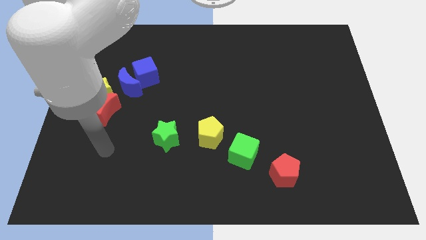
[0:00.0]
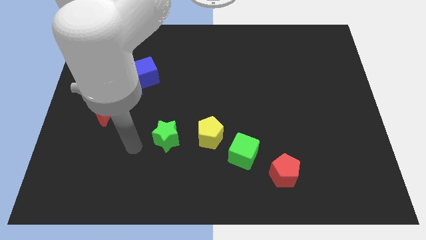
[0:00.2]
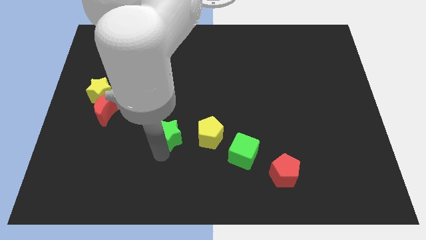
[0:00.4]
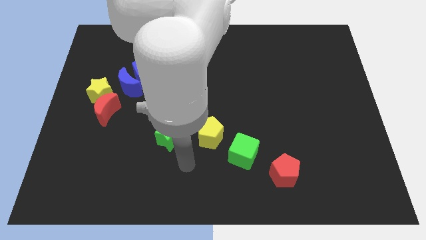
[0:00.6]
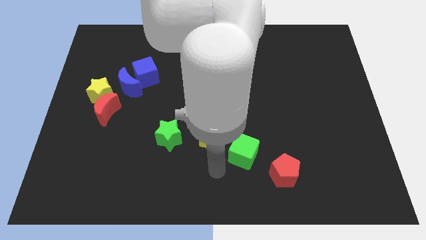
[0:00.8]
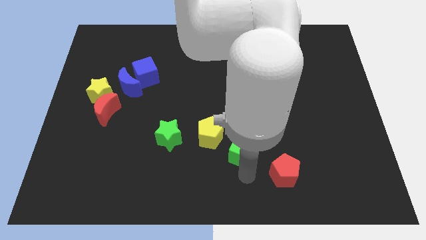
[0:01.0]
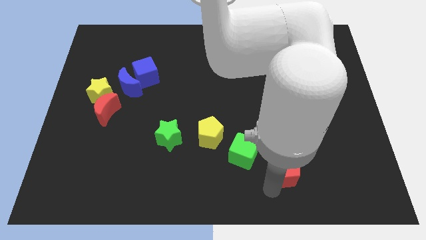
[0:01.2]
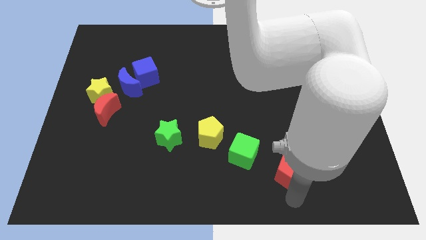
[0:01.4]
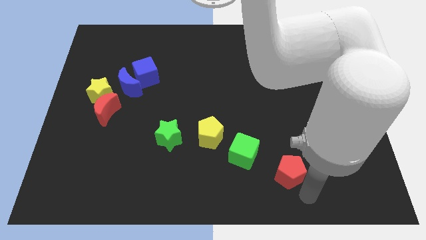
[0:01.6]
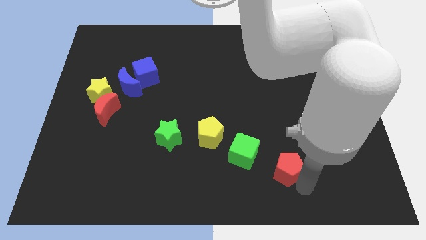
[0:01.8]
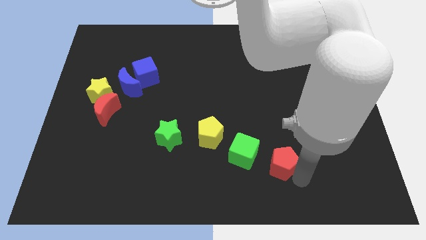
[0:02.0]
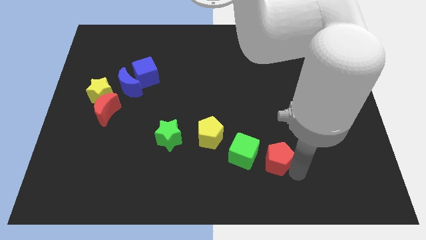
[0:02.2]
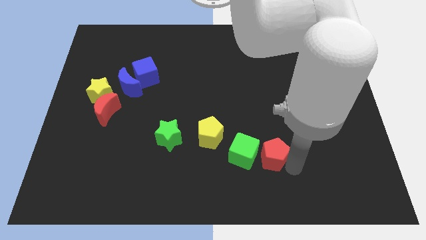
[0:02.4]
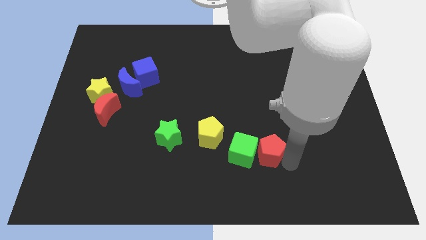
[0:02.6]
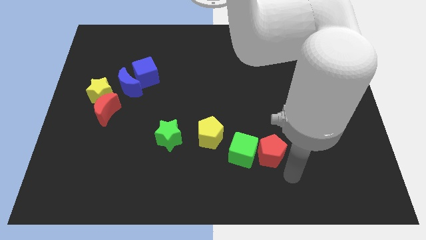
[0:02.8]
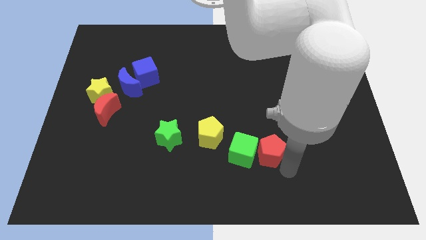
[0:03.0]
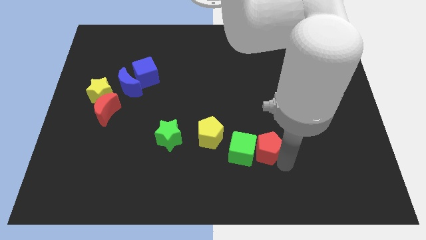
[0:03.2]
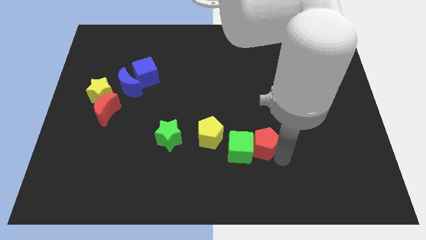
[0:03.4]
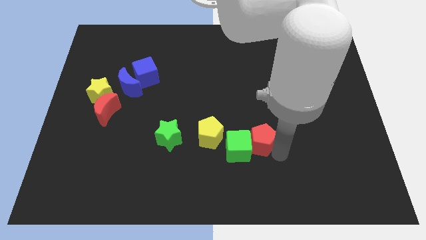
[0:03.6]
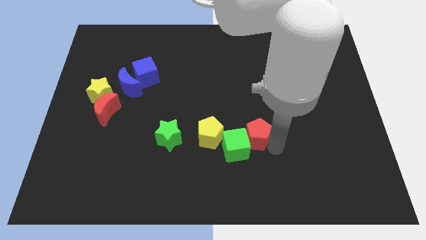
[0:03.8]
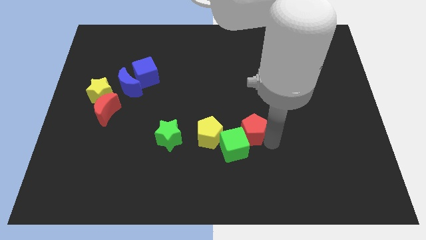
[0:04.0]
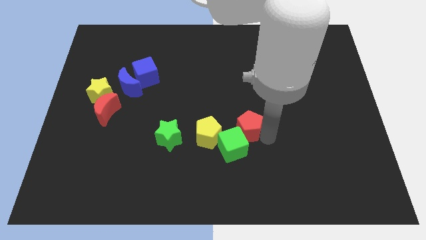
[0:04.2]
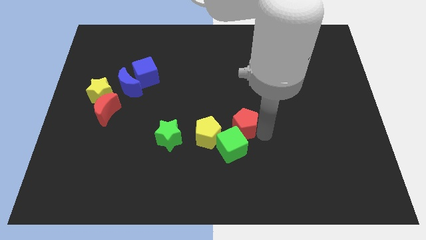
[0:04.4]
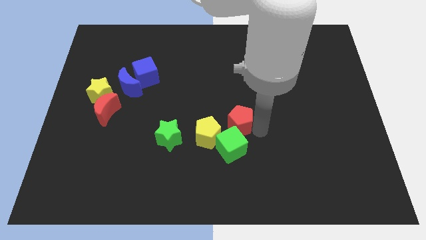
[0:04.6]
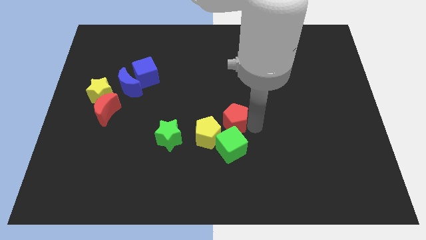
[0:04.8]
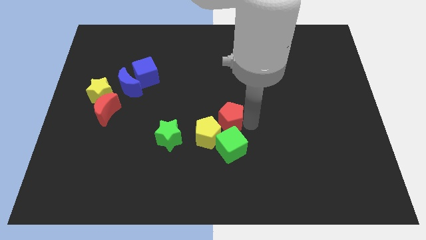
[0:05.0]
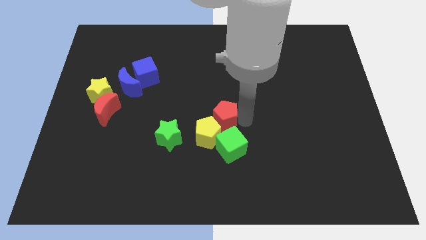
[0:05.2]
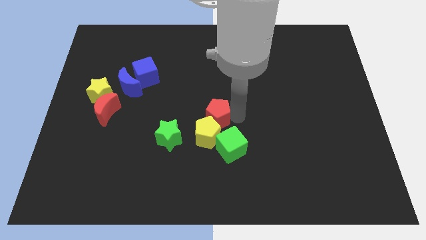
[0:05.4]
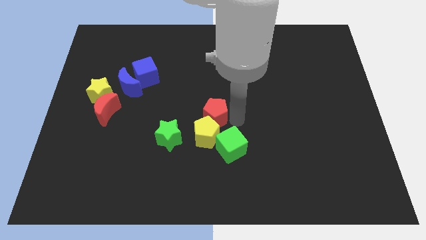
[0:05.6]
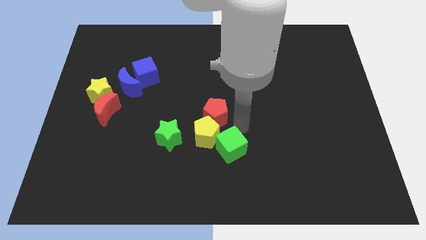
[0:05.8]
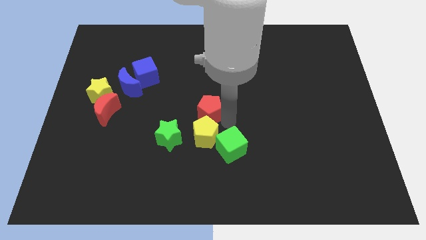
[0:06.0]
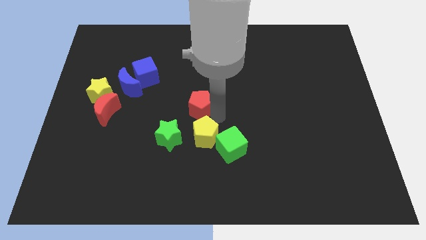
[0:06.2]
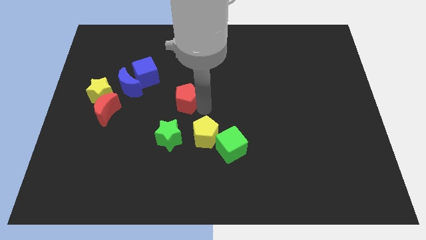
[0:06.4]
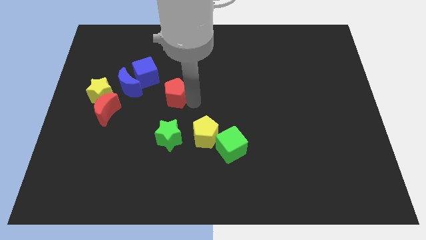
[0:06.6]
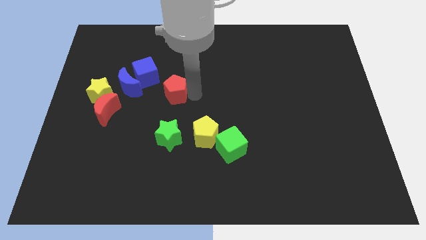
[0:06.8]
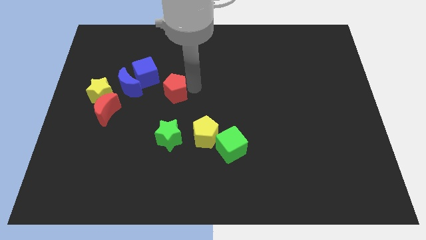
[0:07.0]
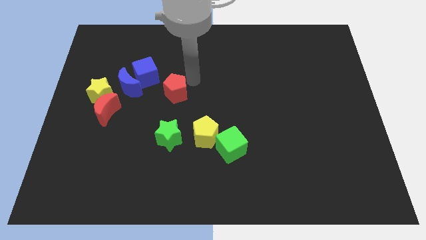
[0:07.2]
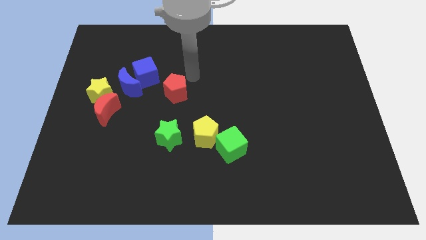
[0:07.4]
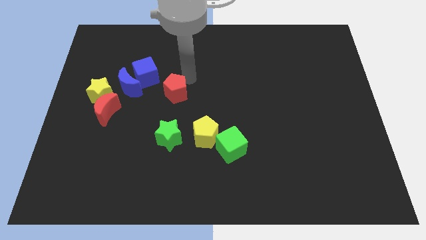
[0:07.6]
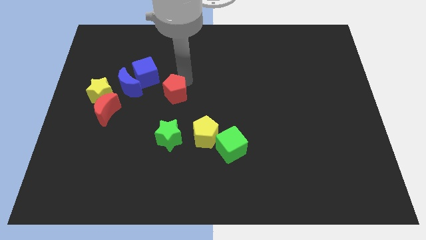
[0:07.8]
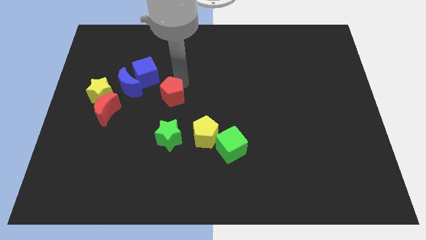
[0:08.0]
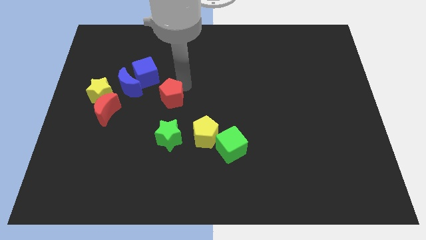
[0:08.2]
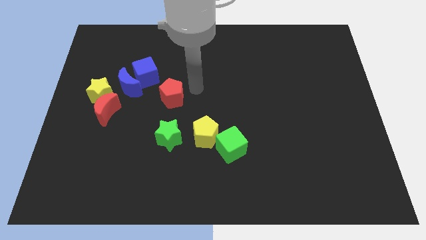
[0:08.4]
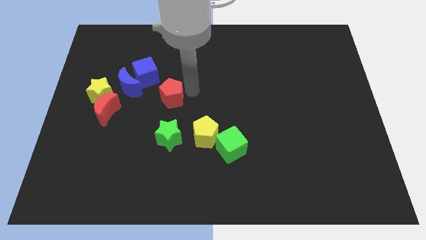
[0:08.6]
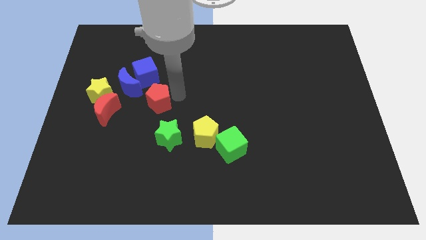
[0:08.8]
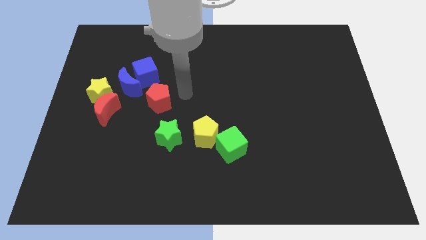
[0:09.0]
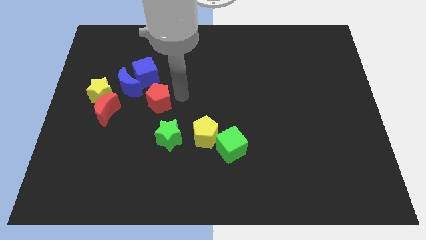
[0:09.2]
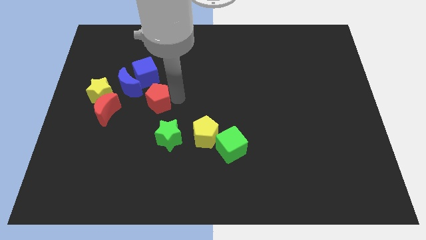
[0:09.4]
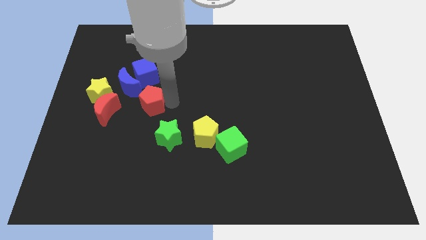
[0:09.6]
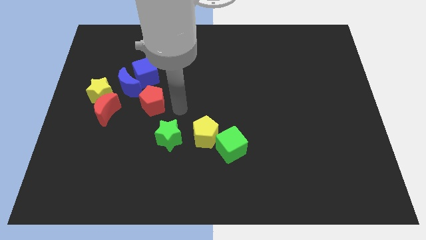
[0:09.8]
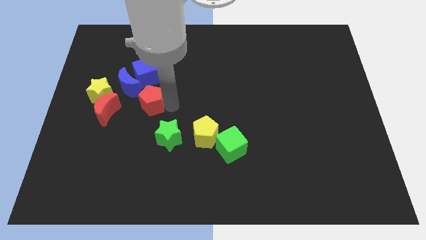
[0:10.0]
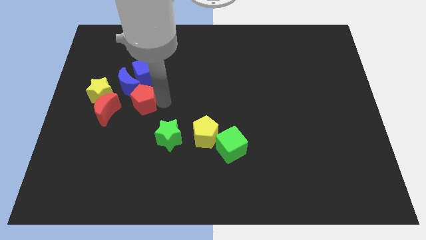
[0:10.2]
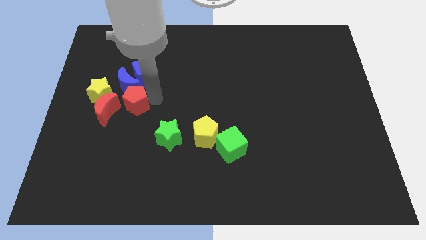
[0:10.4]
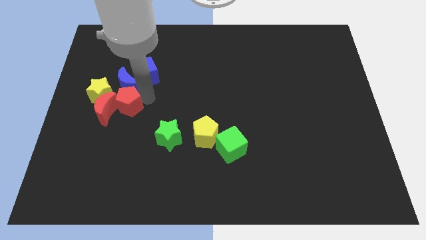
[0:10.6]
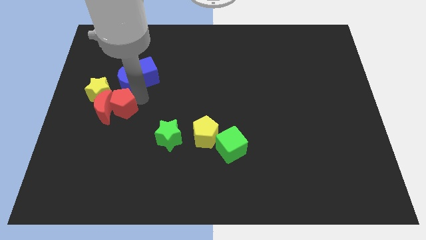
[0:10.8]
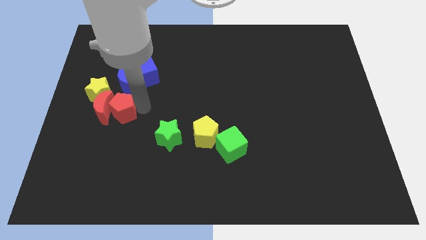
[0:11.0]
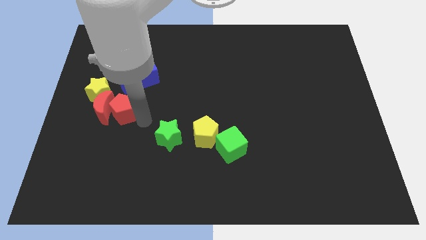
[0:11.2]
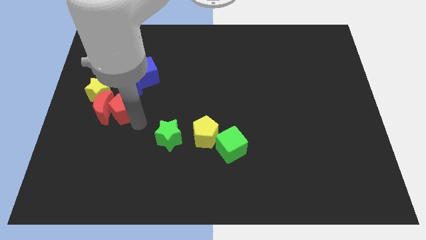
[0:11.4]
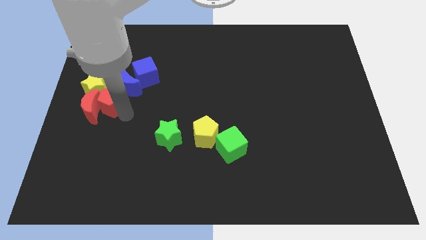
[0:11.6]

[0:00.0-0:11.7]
put the red pentagon to the yellow star

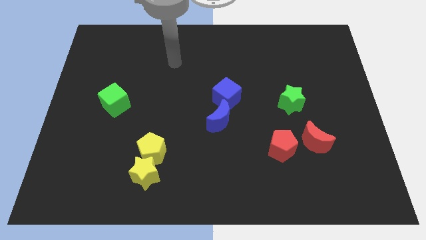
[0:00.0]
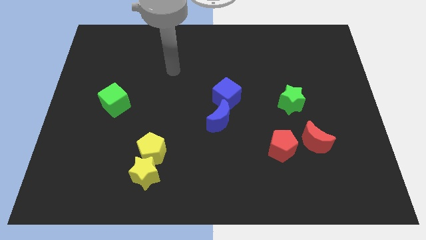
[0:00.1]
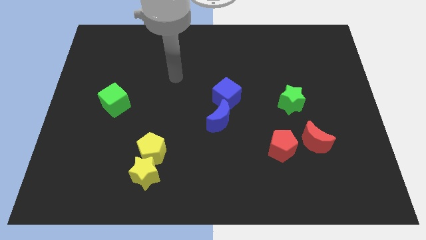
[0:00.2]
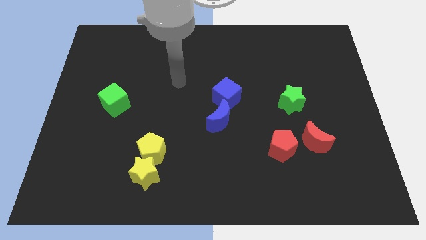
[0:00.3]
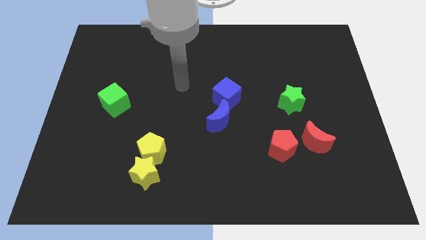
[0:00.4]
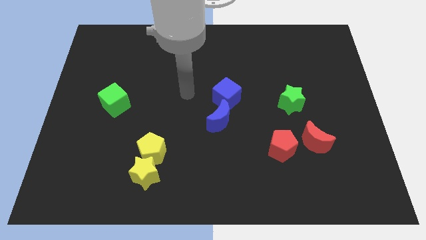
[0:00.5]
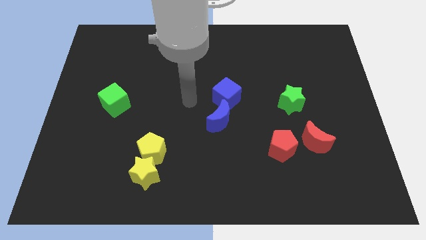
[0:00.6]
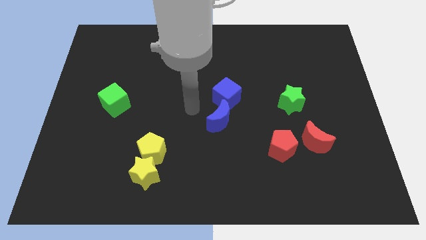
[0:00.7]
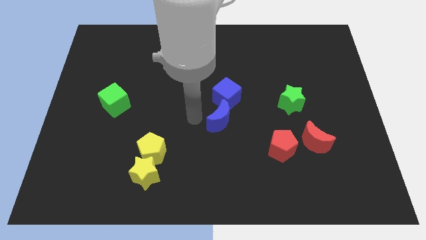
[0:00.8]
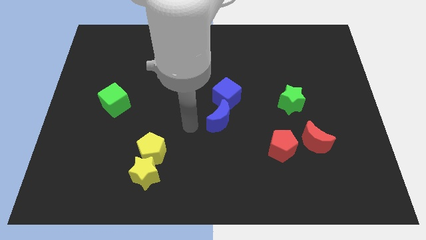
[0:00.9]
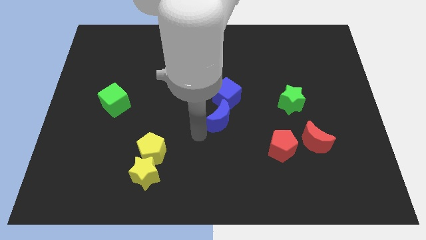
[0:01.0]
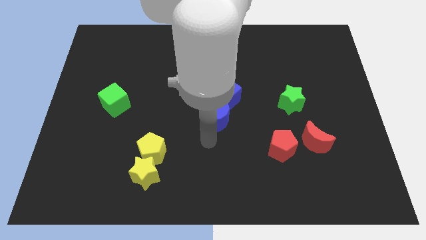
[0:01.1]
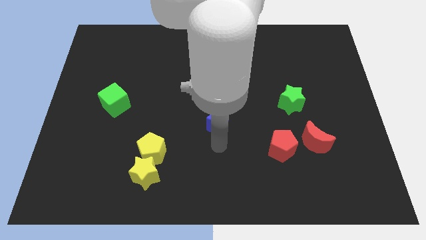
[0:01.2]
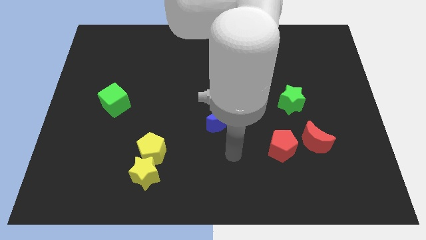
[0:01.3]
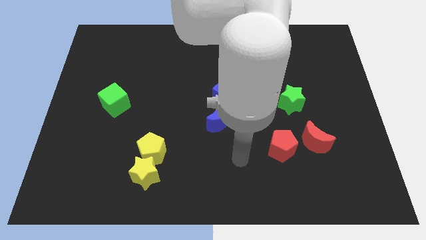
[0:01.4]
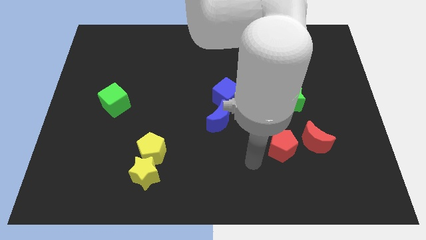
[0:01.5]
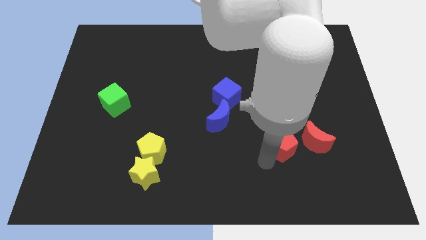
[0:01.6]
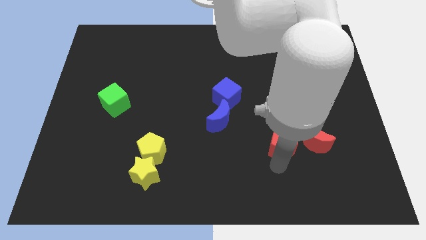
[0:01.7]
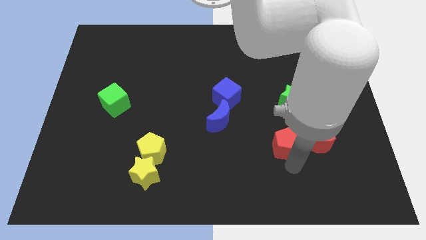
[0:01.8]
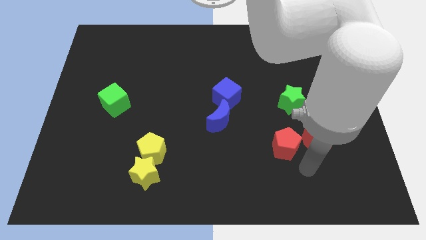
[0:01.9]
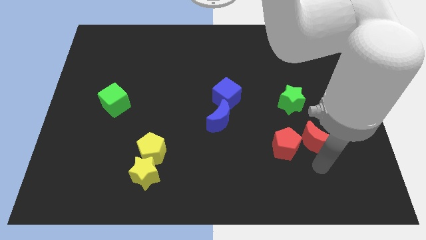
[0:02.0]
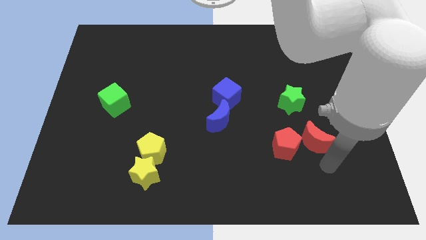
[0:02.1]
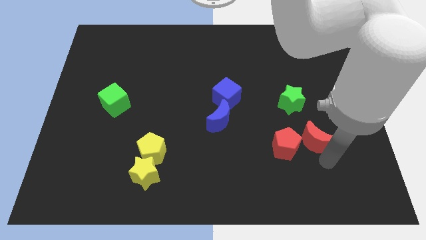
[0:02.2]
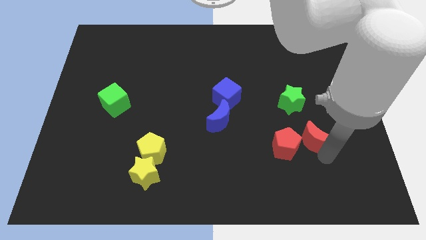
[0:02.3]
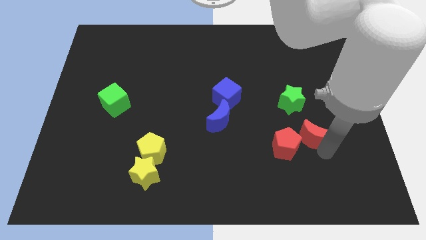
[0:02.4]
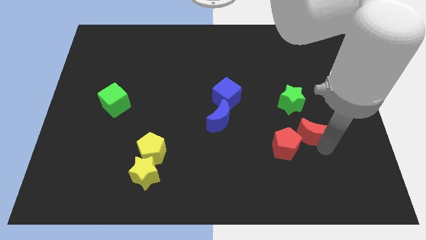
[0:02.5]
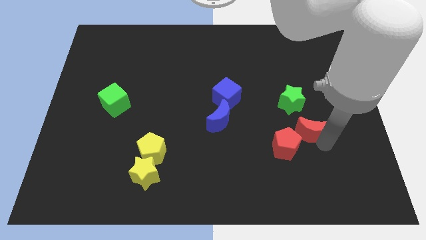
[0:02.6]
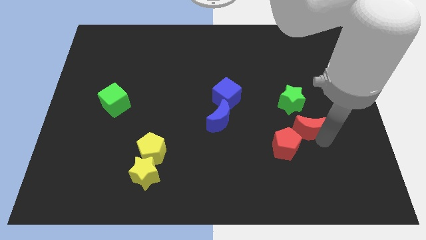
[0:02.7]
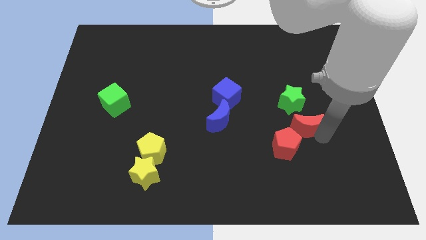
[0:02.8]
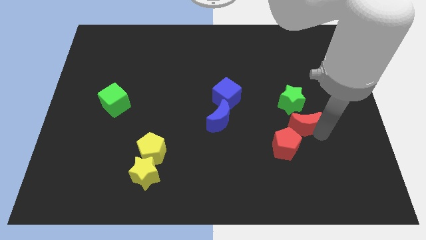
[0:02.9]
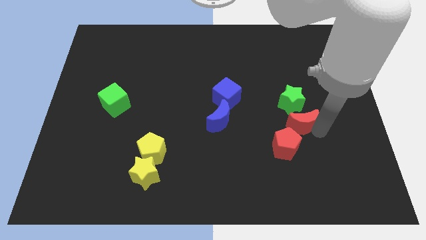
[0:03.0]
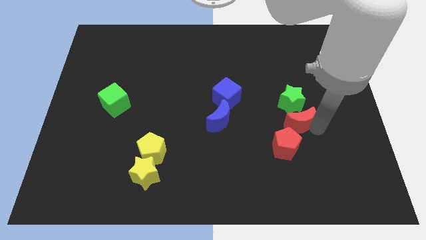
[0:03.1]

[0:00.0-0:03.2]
slide the red moon next to the green star
